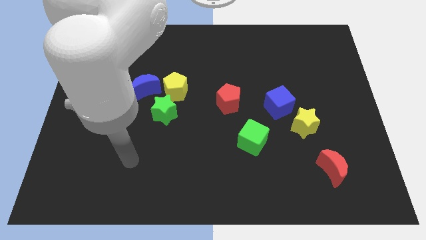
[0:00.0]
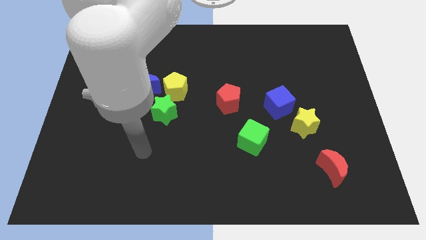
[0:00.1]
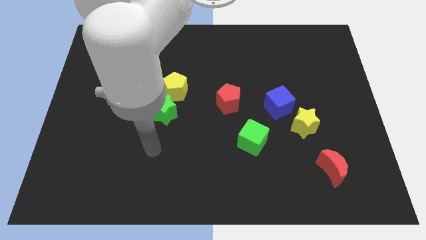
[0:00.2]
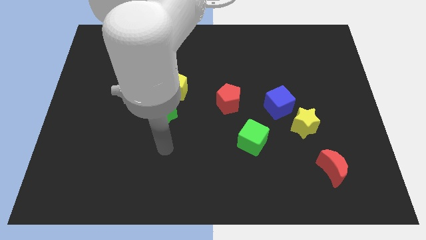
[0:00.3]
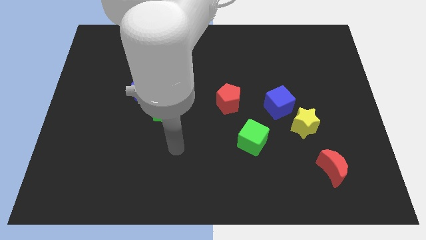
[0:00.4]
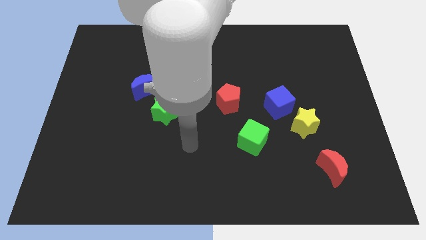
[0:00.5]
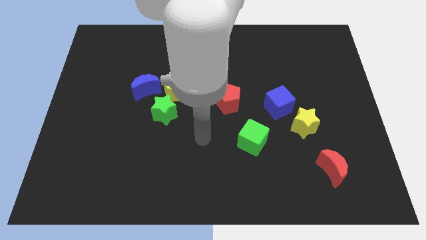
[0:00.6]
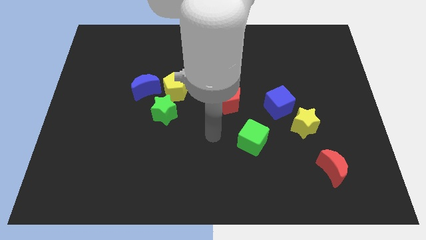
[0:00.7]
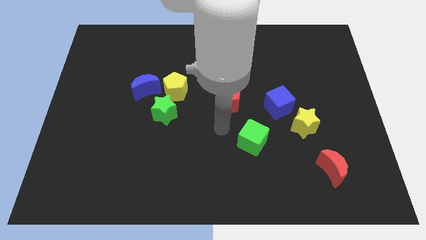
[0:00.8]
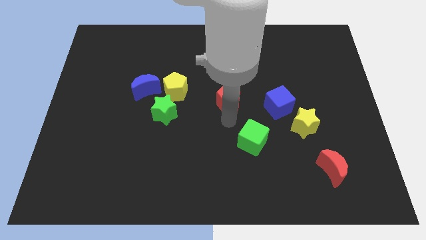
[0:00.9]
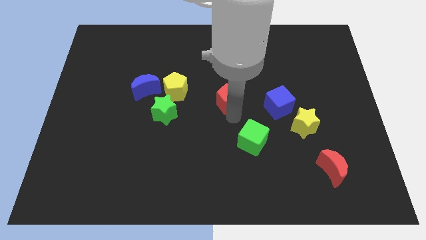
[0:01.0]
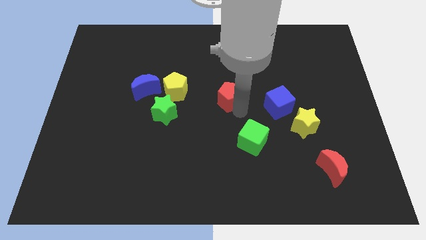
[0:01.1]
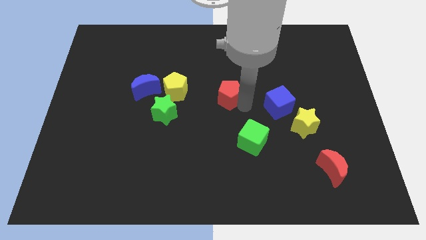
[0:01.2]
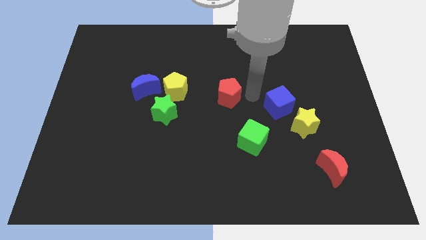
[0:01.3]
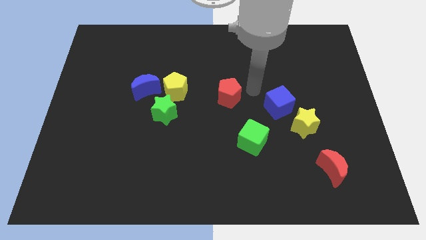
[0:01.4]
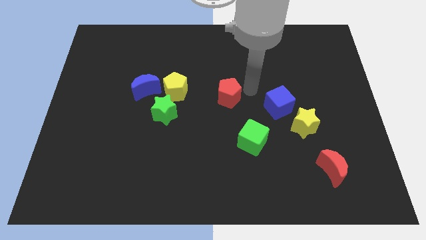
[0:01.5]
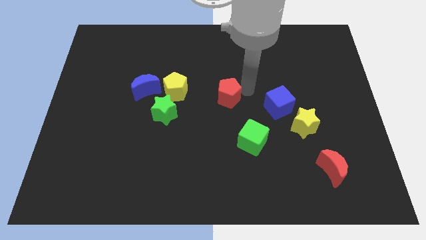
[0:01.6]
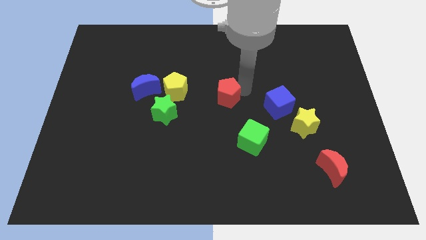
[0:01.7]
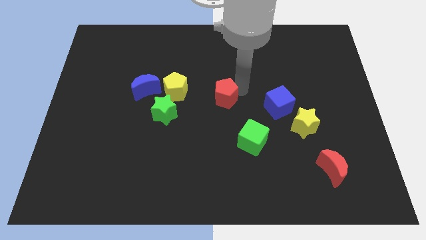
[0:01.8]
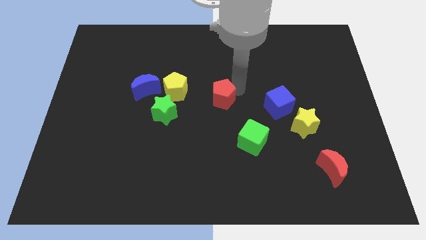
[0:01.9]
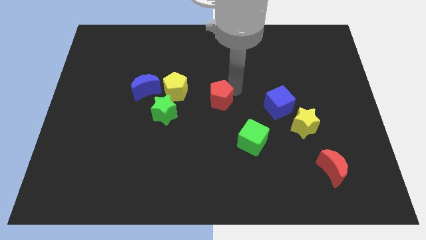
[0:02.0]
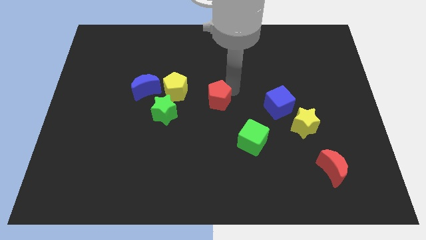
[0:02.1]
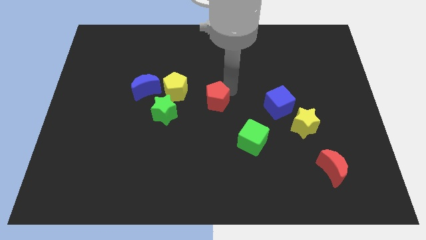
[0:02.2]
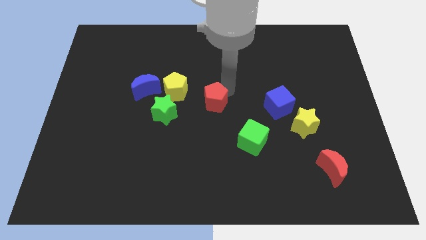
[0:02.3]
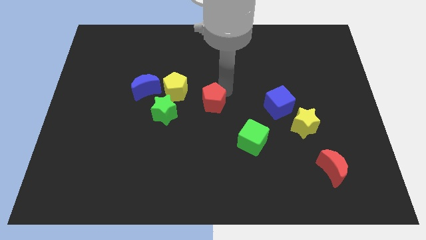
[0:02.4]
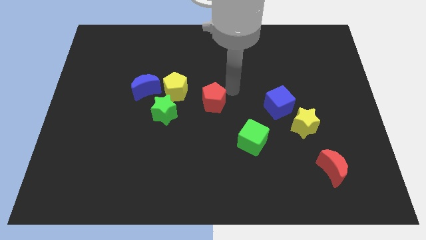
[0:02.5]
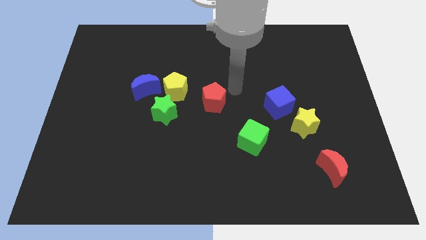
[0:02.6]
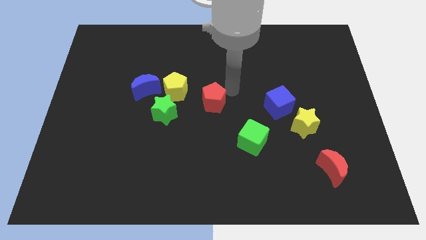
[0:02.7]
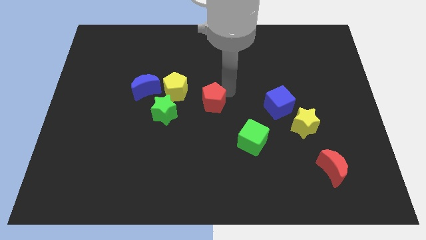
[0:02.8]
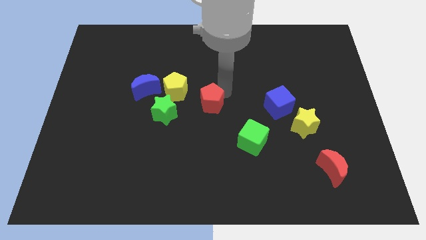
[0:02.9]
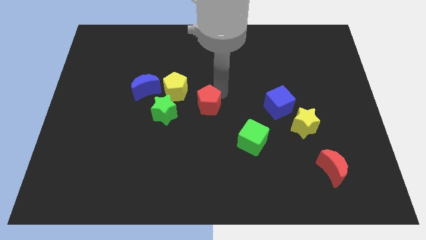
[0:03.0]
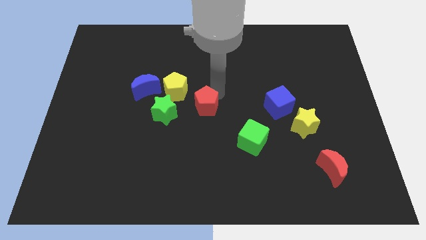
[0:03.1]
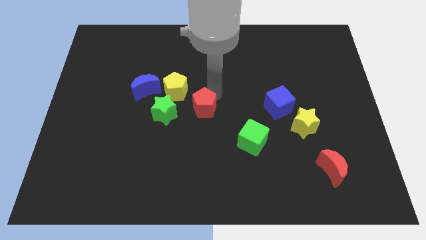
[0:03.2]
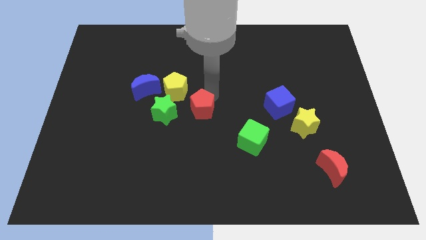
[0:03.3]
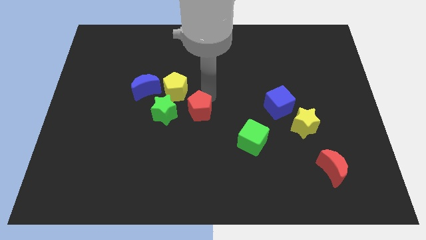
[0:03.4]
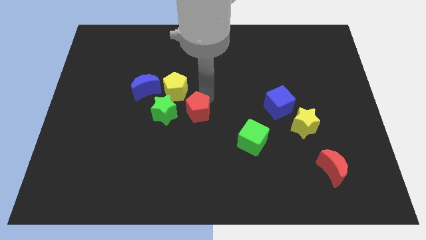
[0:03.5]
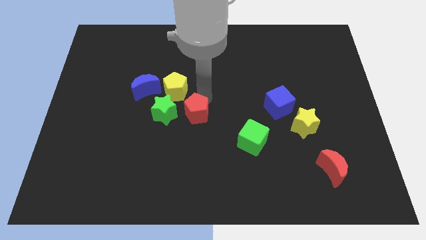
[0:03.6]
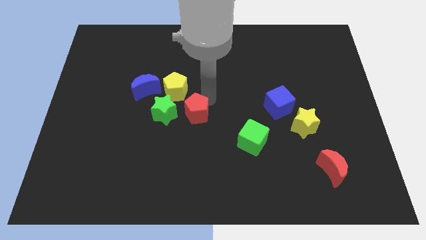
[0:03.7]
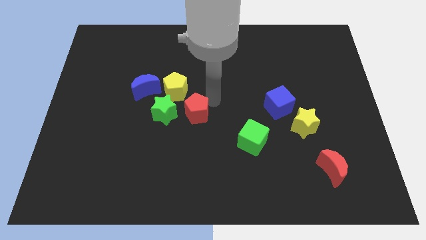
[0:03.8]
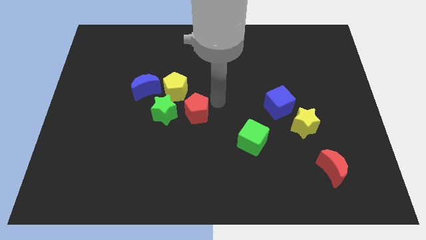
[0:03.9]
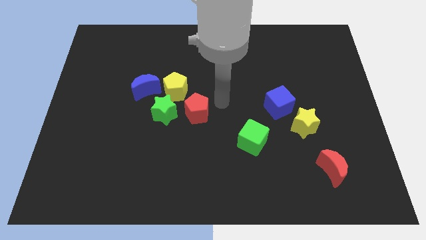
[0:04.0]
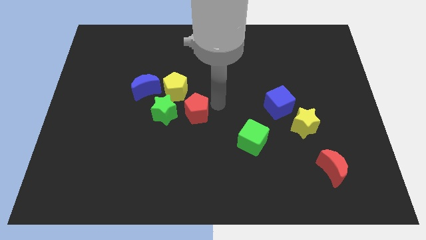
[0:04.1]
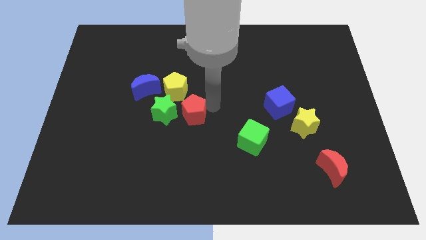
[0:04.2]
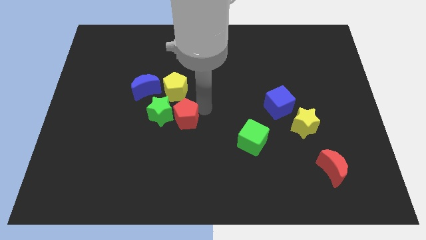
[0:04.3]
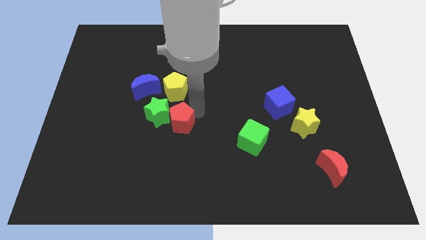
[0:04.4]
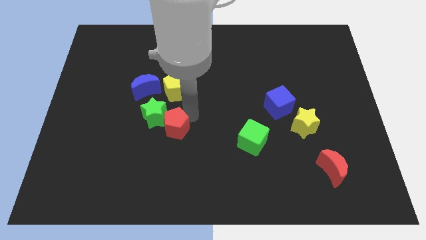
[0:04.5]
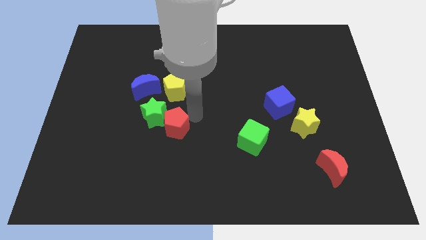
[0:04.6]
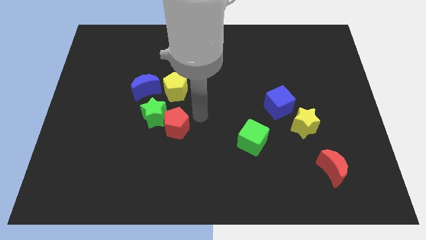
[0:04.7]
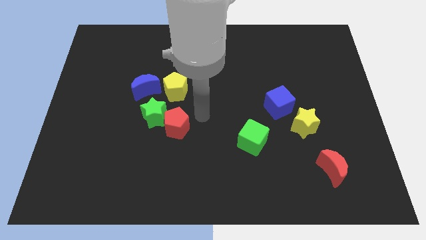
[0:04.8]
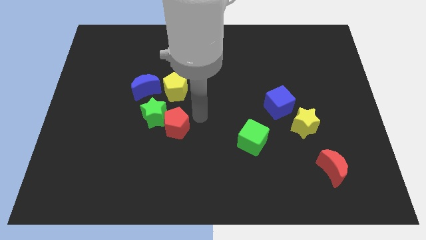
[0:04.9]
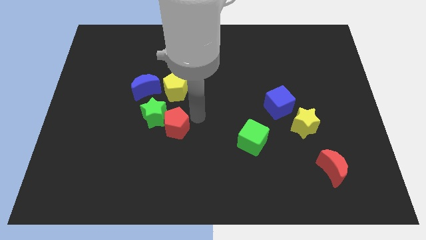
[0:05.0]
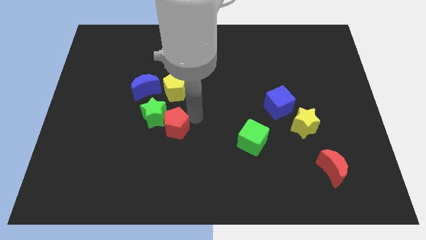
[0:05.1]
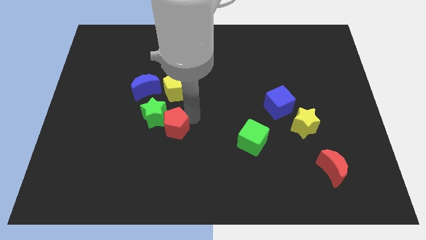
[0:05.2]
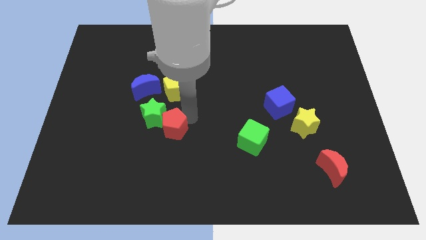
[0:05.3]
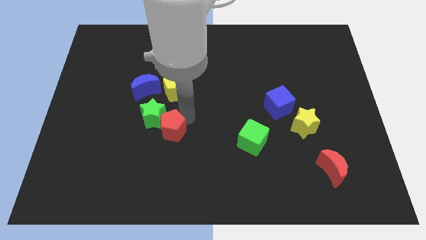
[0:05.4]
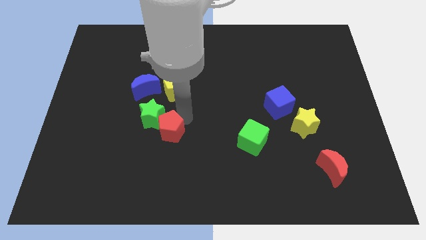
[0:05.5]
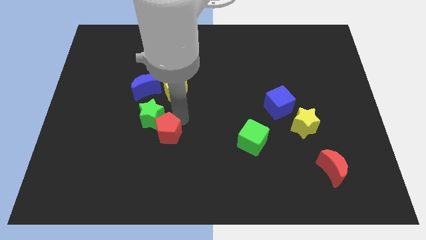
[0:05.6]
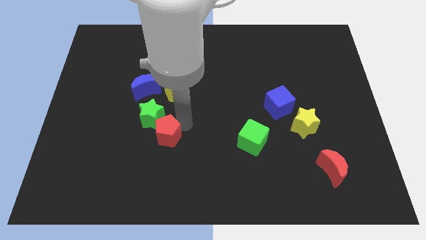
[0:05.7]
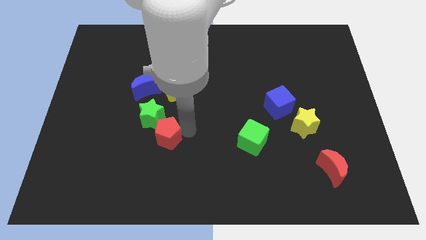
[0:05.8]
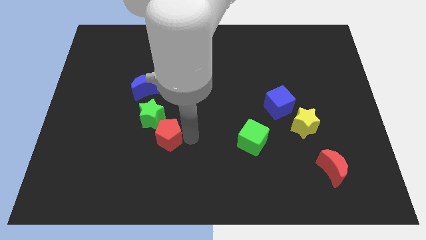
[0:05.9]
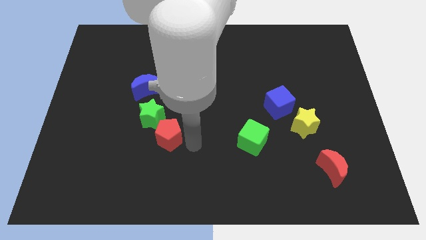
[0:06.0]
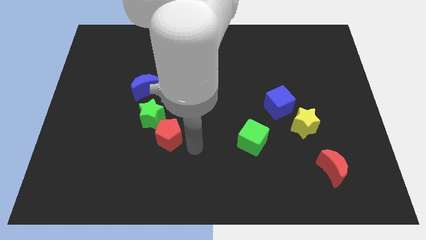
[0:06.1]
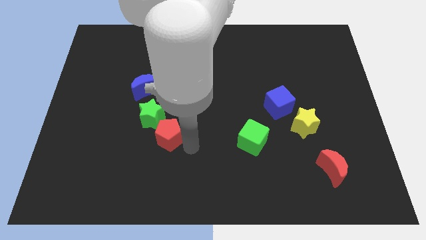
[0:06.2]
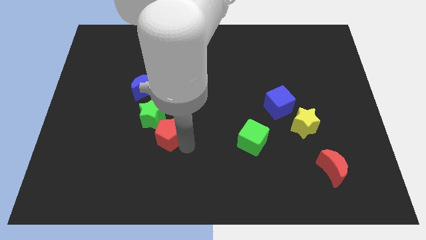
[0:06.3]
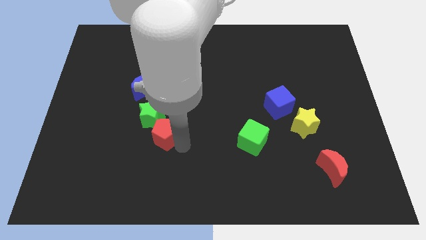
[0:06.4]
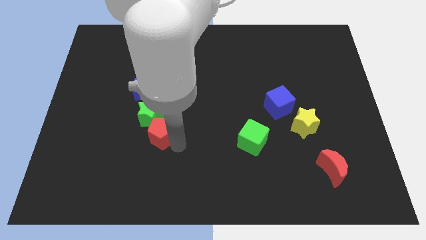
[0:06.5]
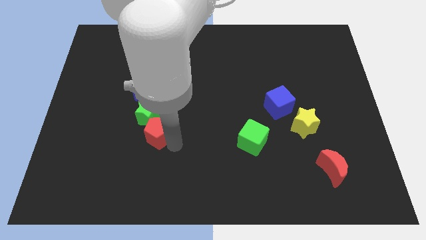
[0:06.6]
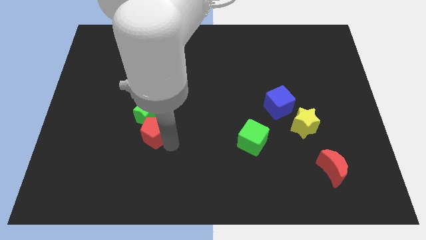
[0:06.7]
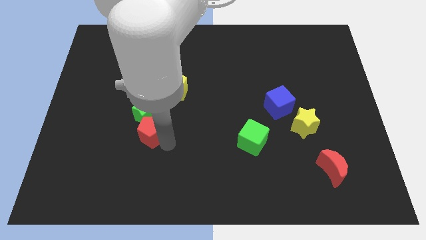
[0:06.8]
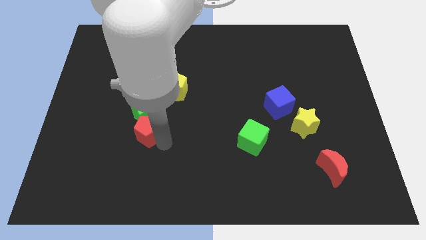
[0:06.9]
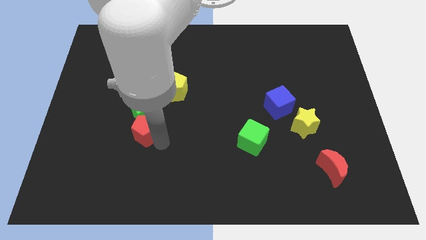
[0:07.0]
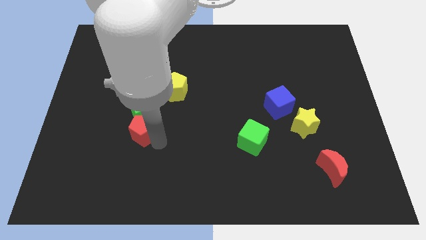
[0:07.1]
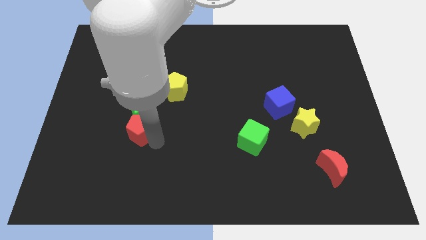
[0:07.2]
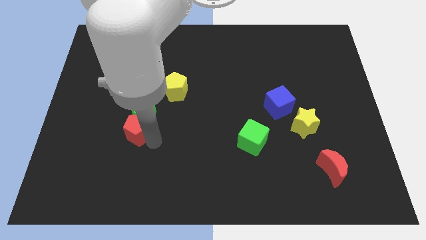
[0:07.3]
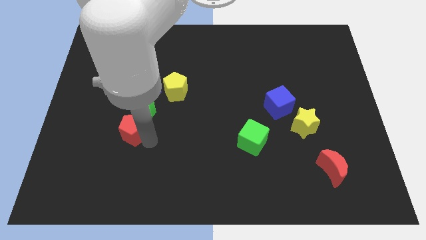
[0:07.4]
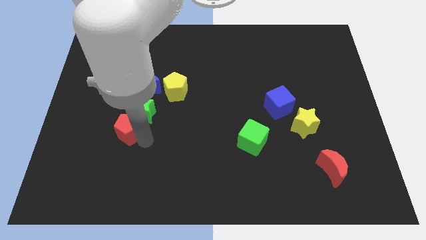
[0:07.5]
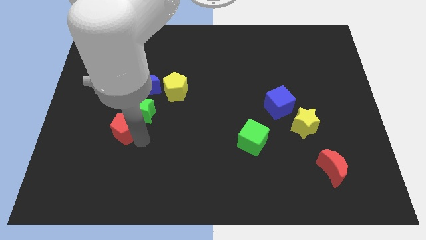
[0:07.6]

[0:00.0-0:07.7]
slide the red pentagon to the left

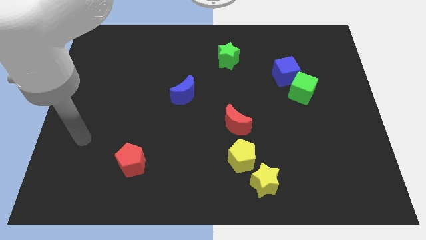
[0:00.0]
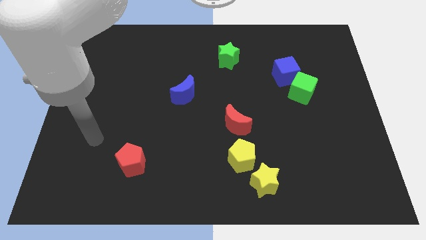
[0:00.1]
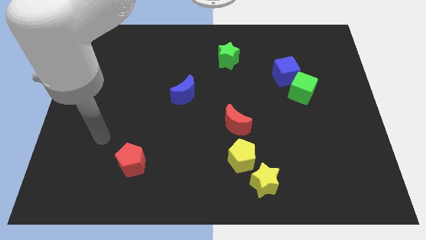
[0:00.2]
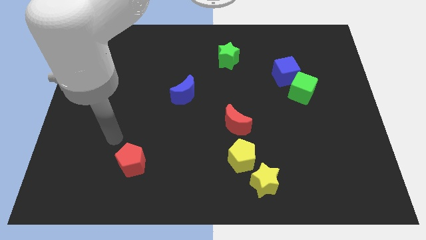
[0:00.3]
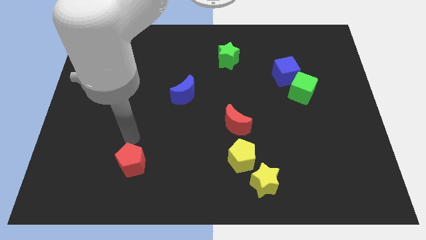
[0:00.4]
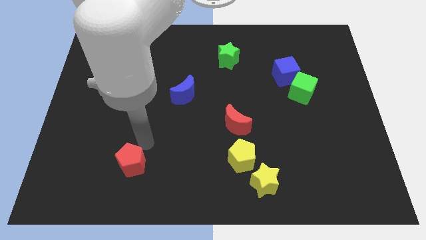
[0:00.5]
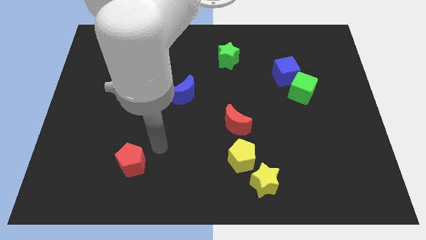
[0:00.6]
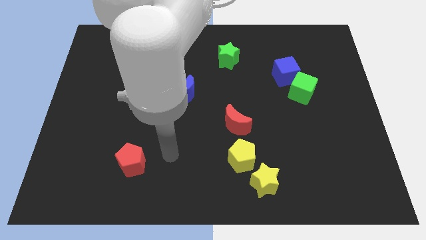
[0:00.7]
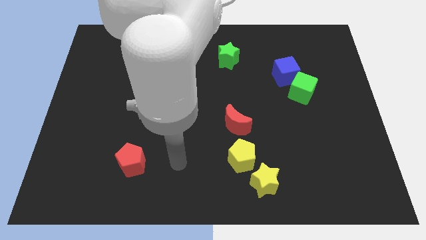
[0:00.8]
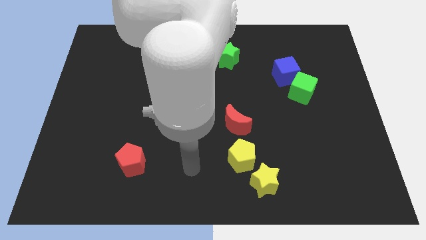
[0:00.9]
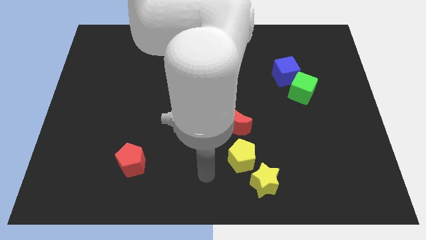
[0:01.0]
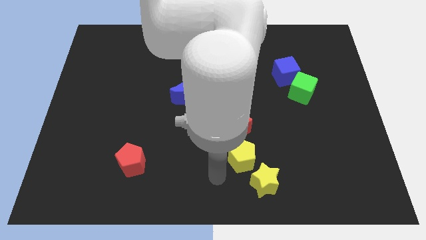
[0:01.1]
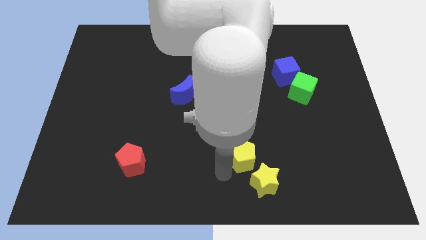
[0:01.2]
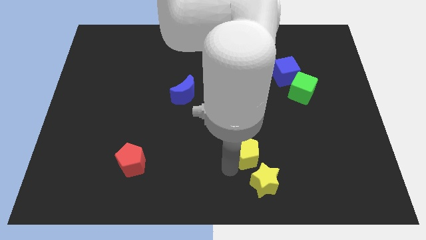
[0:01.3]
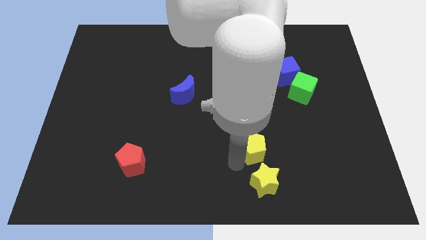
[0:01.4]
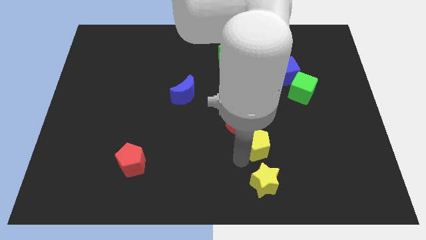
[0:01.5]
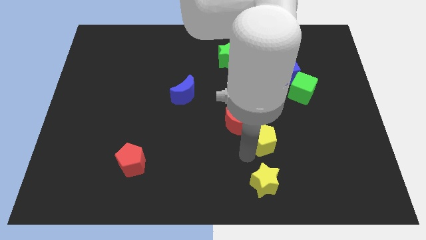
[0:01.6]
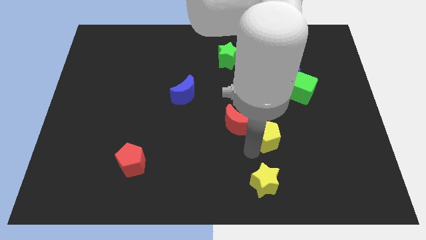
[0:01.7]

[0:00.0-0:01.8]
slide the yellow pentagon a little bit upwards and to the right diagonally
